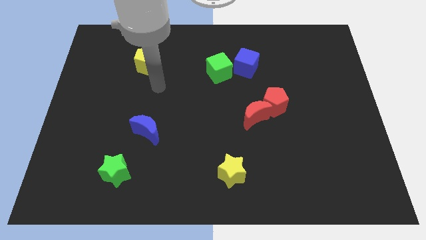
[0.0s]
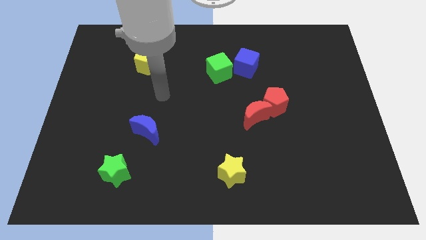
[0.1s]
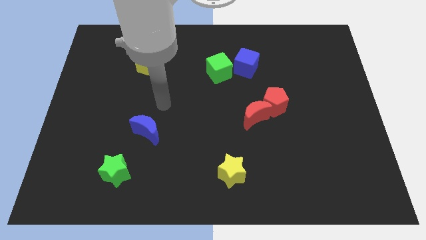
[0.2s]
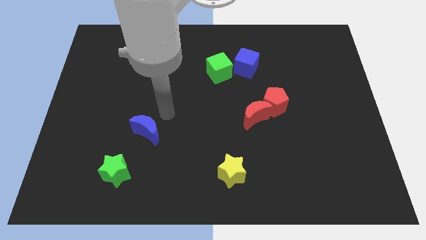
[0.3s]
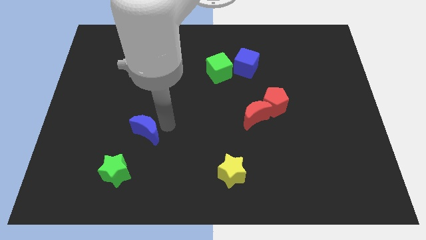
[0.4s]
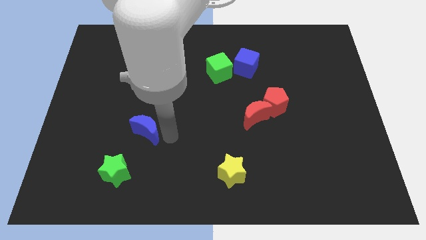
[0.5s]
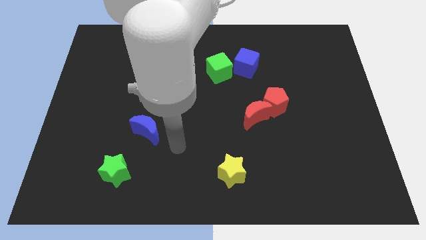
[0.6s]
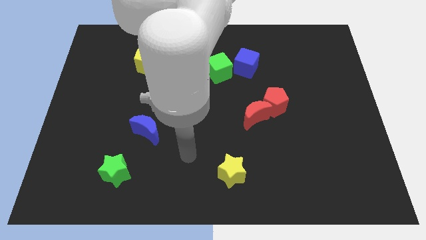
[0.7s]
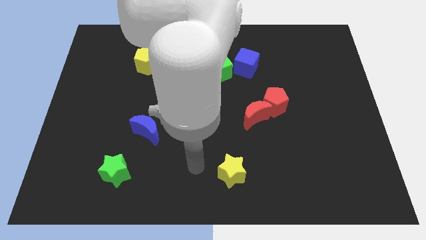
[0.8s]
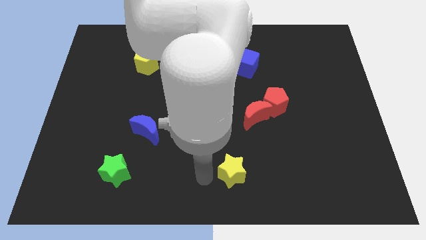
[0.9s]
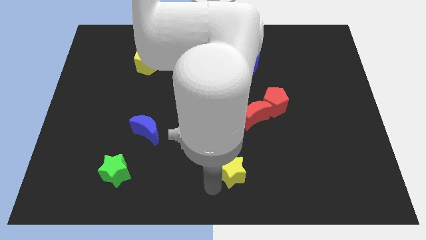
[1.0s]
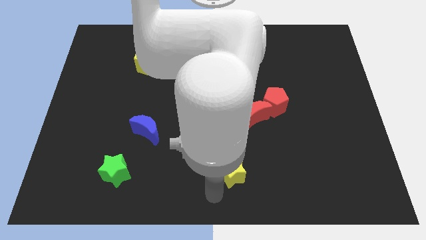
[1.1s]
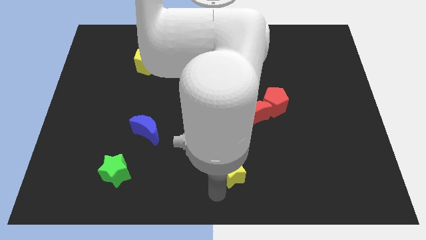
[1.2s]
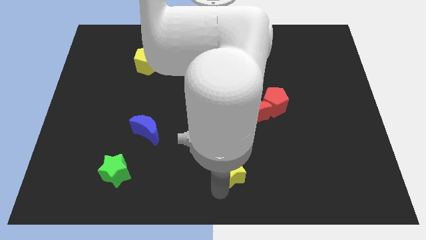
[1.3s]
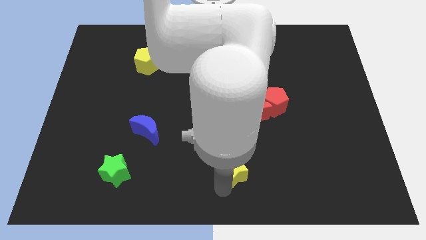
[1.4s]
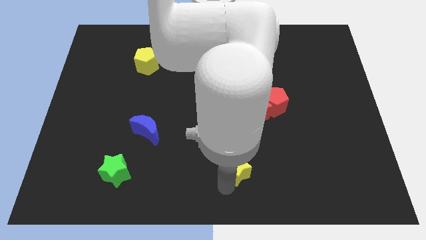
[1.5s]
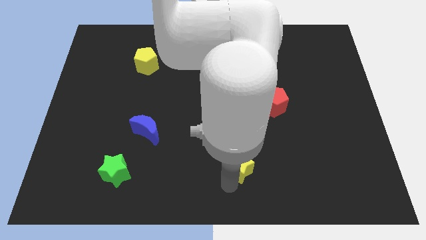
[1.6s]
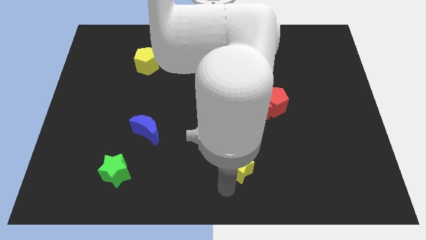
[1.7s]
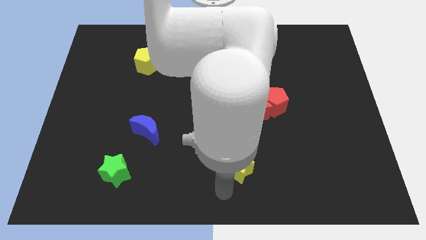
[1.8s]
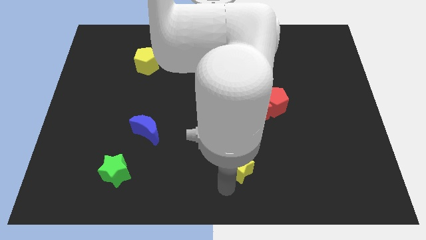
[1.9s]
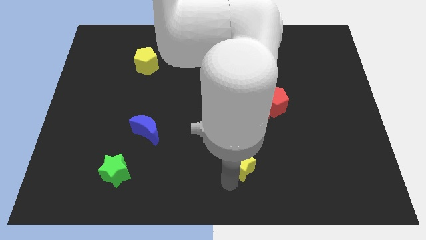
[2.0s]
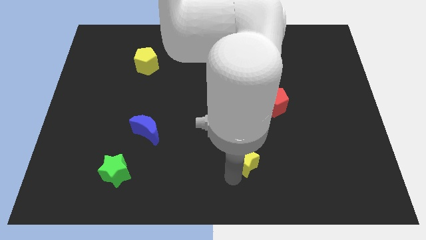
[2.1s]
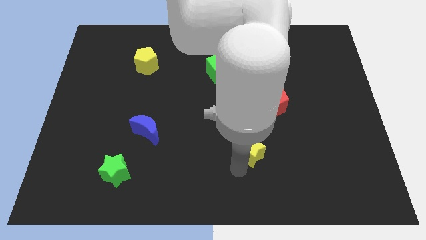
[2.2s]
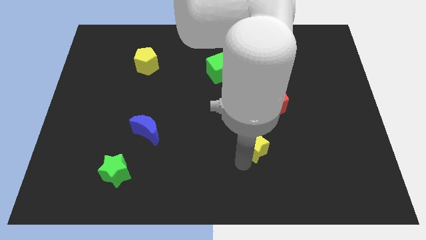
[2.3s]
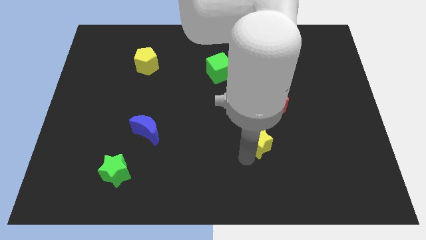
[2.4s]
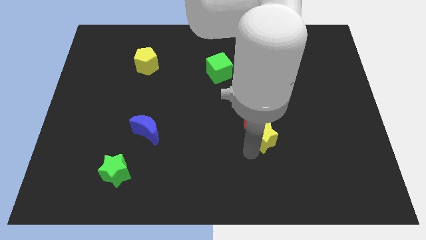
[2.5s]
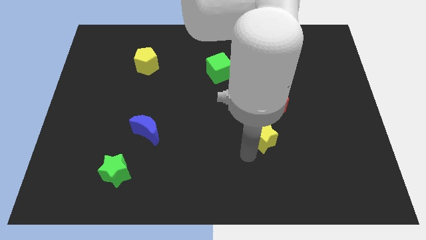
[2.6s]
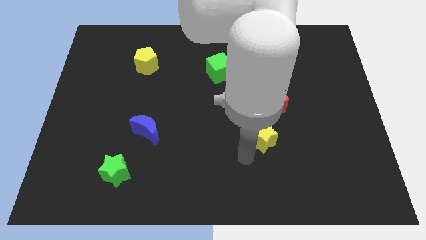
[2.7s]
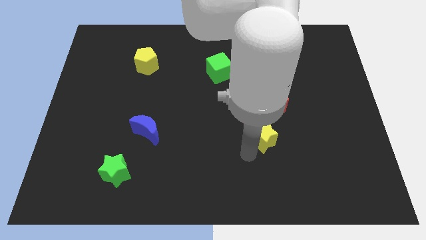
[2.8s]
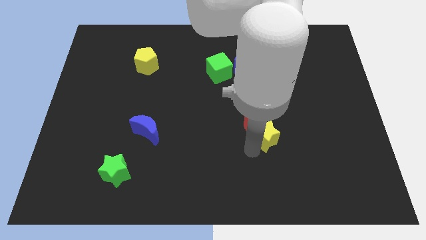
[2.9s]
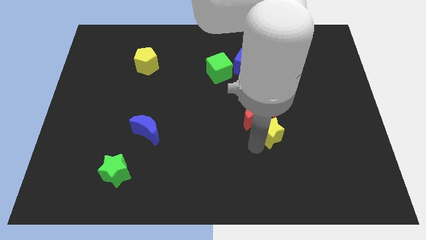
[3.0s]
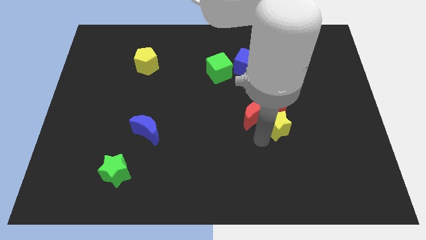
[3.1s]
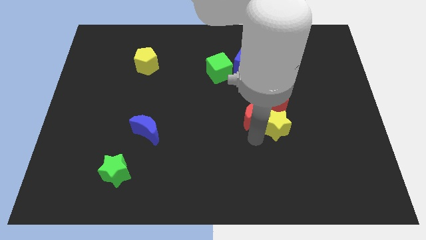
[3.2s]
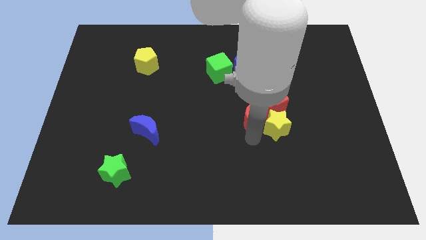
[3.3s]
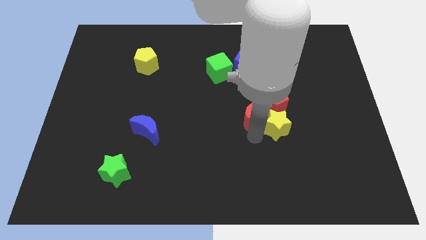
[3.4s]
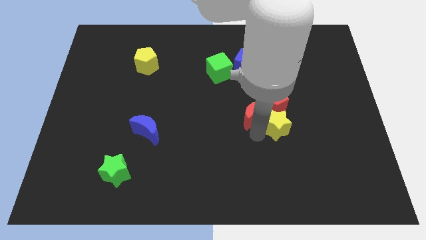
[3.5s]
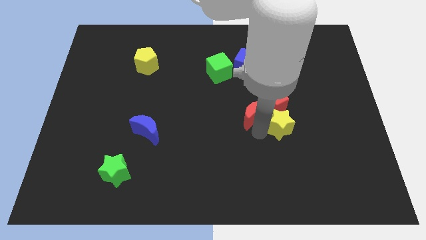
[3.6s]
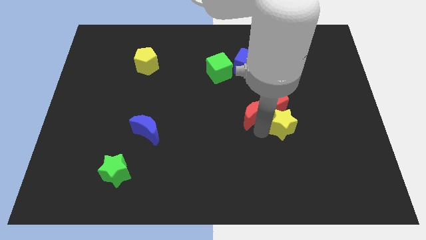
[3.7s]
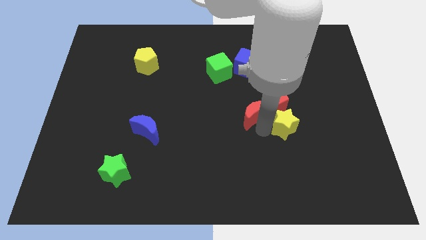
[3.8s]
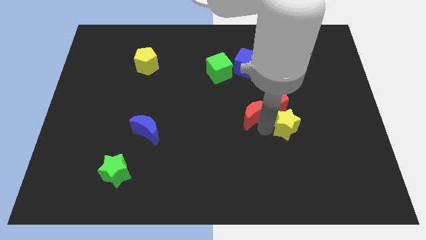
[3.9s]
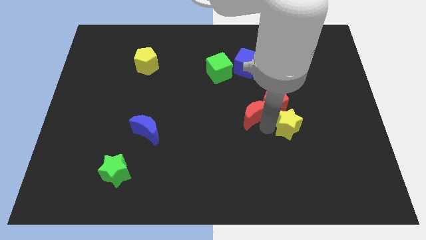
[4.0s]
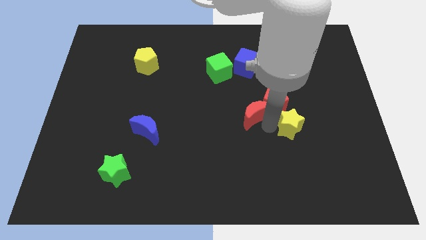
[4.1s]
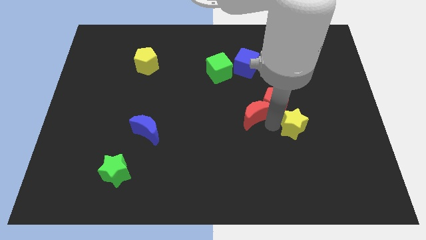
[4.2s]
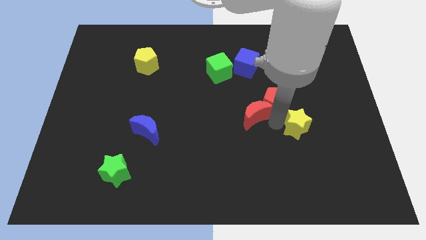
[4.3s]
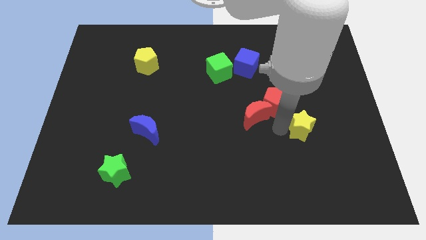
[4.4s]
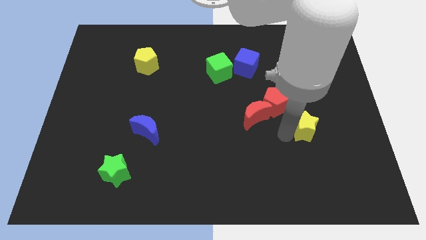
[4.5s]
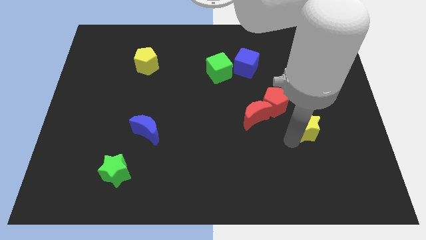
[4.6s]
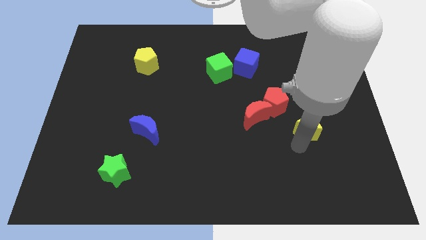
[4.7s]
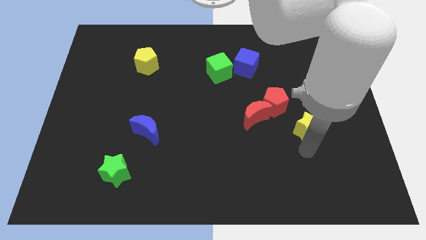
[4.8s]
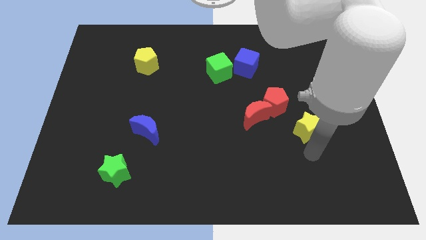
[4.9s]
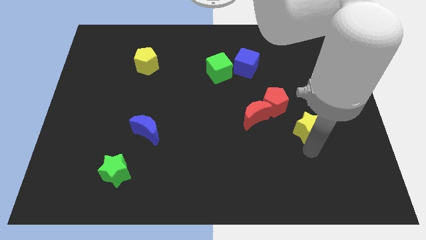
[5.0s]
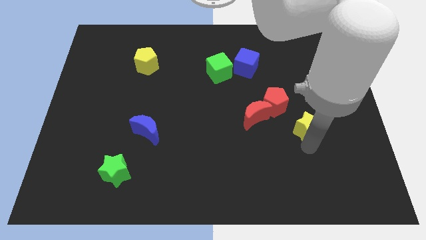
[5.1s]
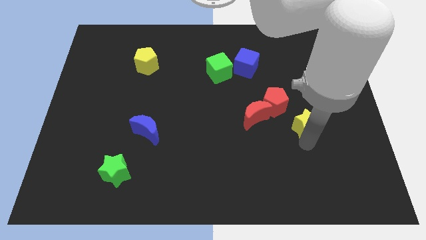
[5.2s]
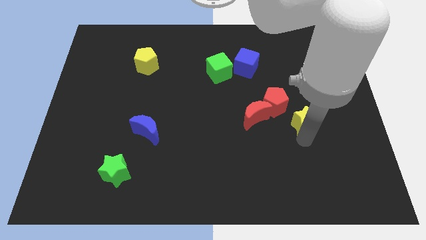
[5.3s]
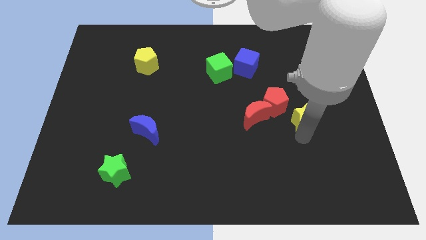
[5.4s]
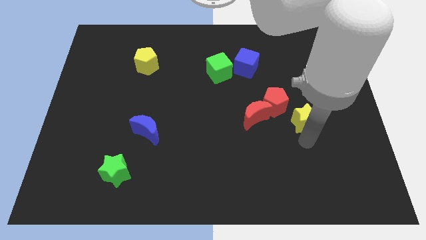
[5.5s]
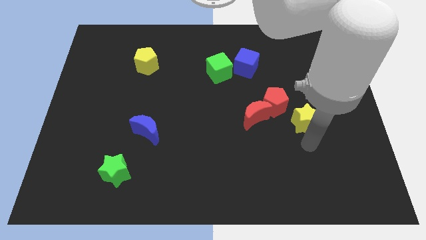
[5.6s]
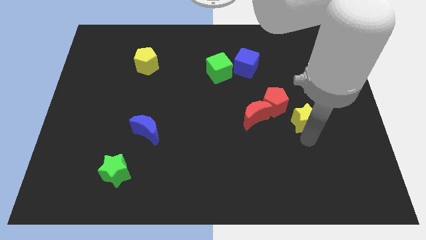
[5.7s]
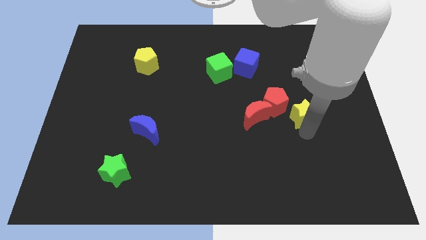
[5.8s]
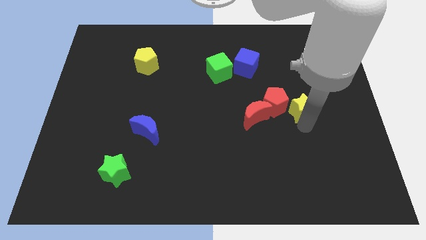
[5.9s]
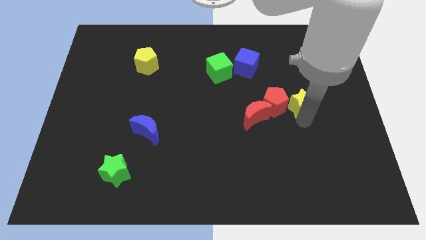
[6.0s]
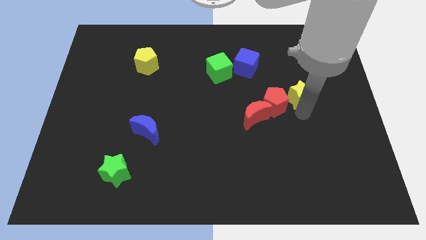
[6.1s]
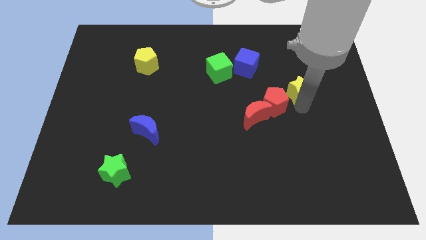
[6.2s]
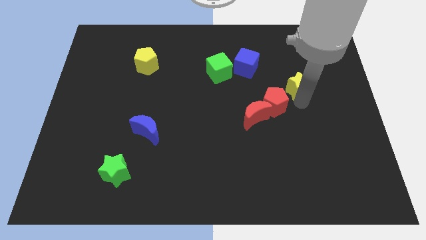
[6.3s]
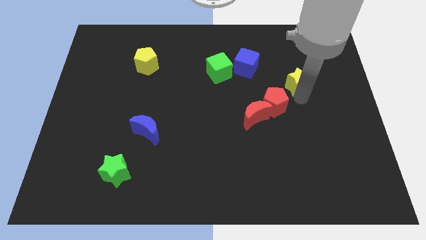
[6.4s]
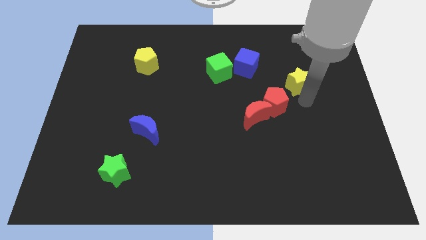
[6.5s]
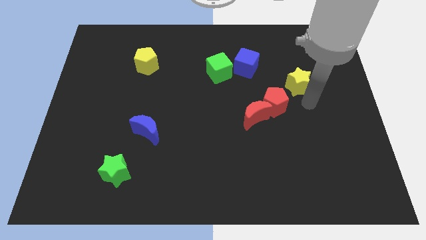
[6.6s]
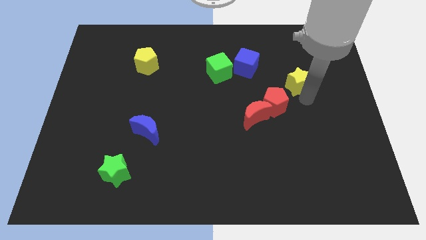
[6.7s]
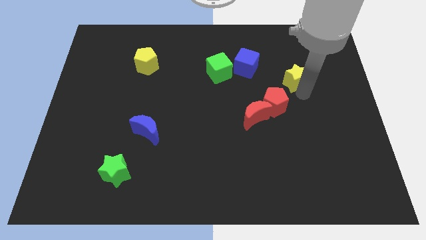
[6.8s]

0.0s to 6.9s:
put the yellow star to the right of the blue cube

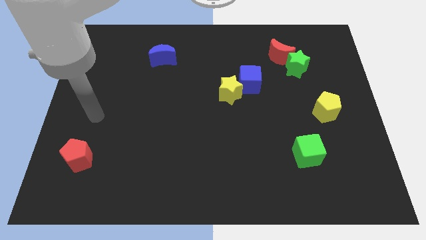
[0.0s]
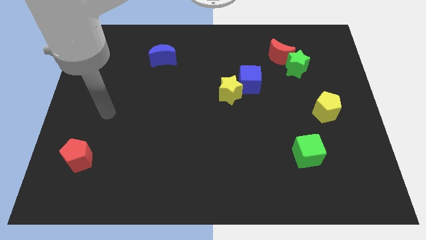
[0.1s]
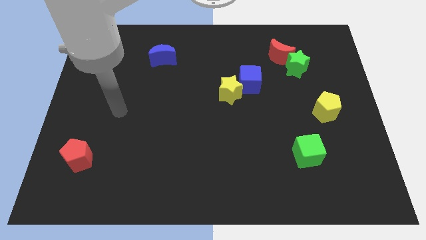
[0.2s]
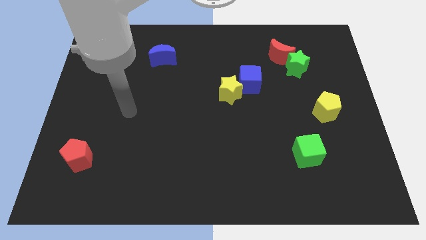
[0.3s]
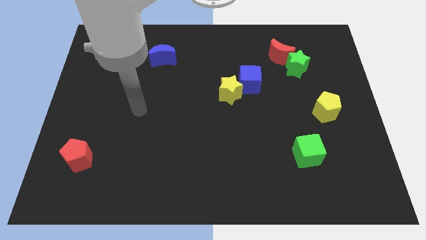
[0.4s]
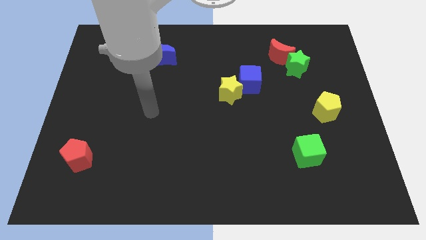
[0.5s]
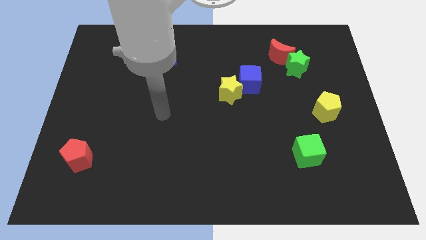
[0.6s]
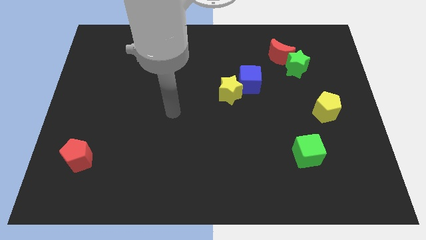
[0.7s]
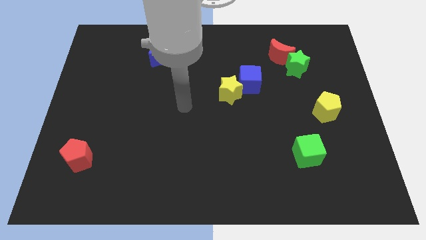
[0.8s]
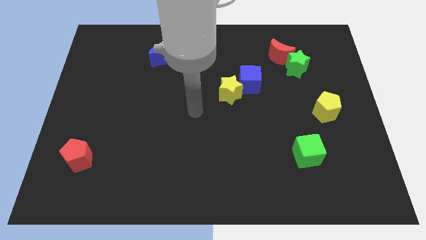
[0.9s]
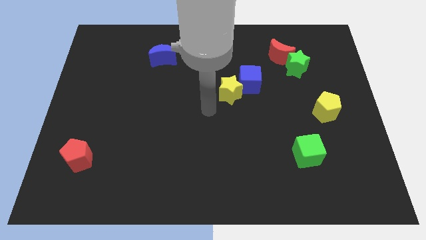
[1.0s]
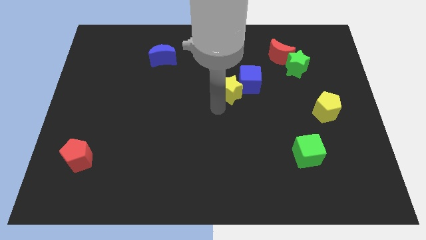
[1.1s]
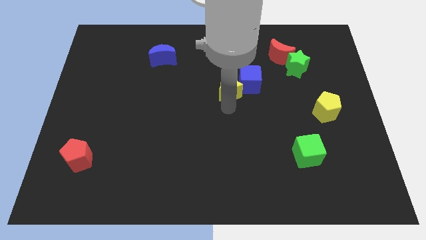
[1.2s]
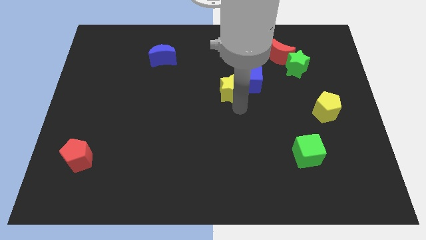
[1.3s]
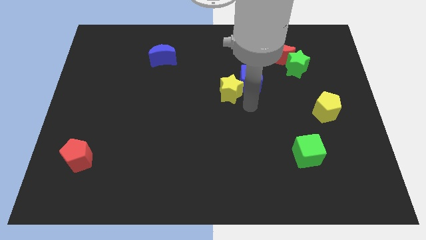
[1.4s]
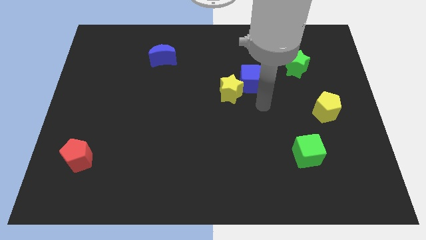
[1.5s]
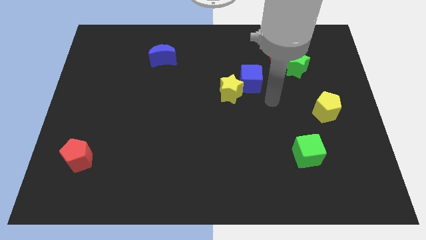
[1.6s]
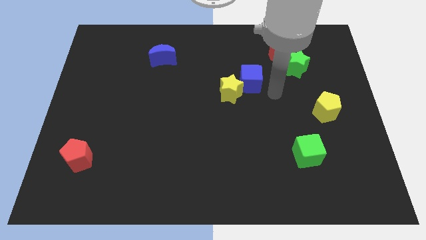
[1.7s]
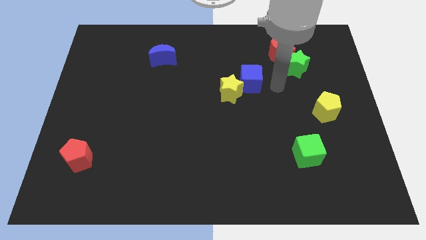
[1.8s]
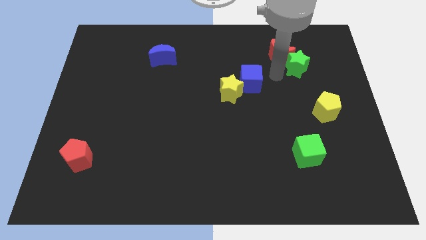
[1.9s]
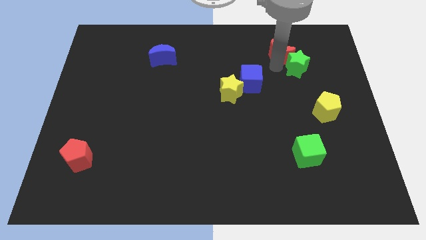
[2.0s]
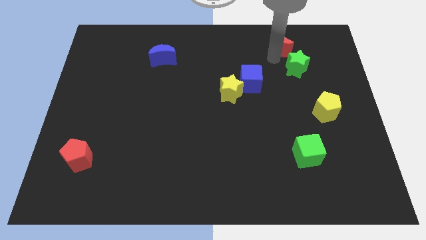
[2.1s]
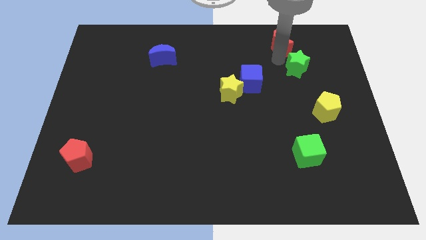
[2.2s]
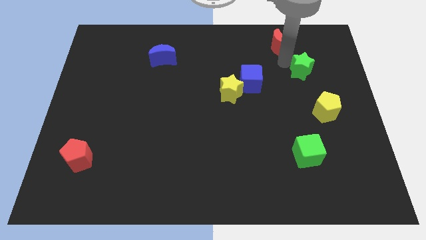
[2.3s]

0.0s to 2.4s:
move the green star to the top side of the yellow pentagon
